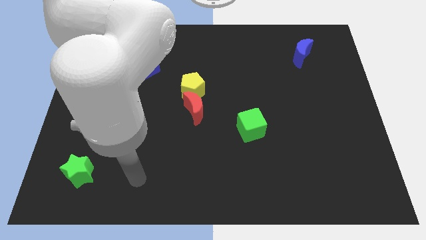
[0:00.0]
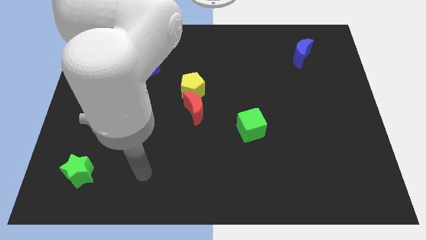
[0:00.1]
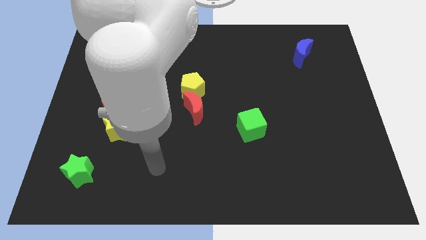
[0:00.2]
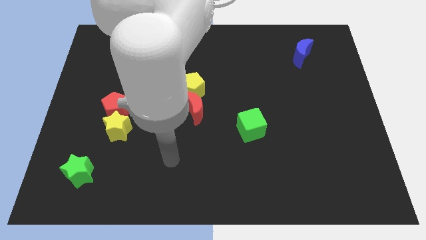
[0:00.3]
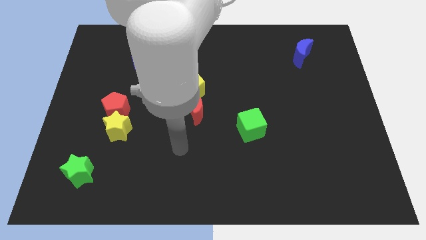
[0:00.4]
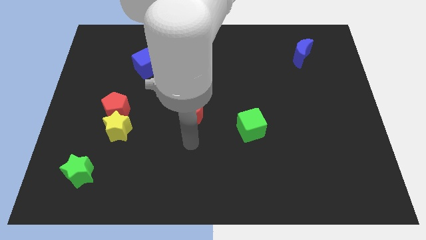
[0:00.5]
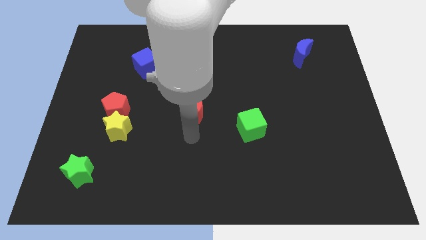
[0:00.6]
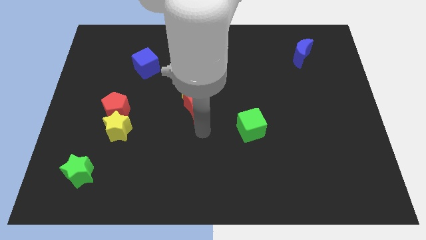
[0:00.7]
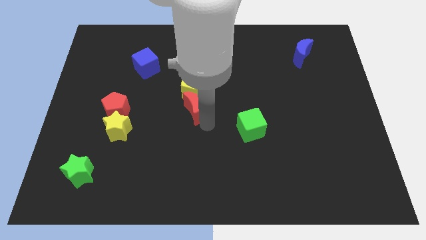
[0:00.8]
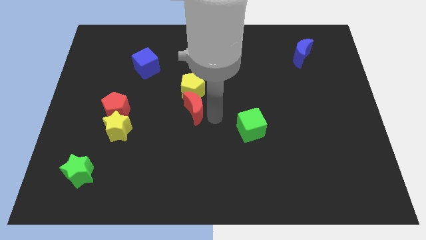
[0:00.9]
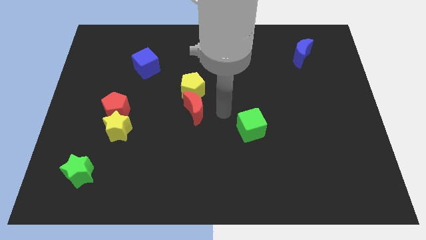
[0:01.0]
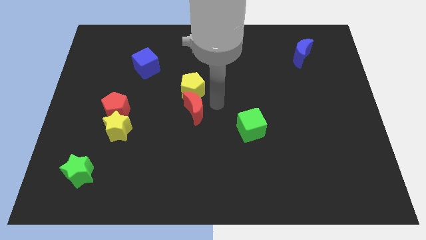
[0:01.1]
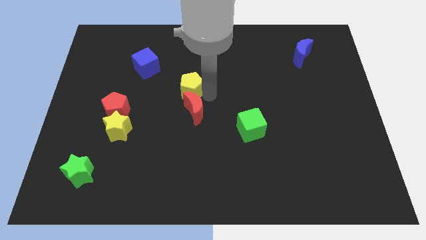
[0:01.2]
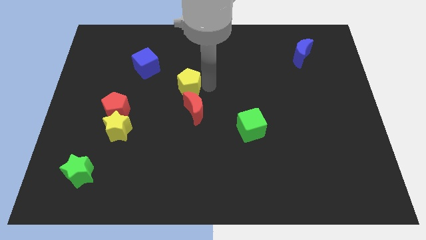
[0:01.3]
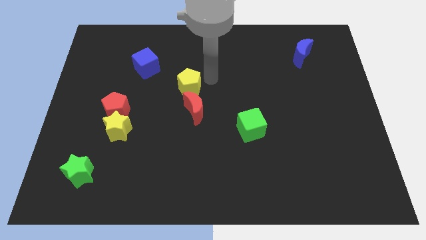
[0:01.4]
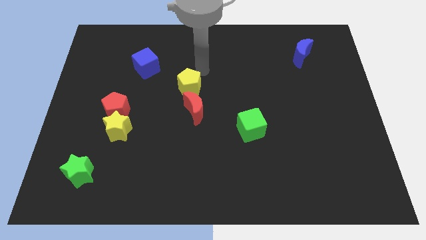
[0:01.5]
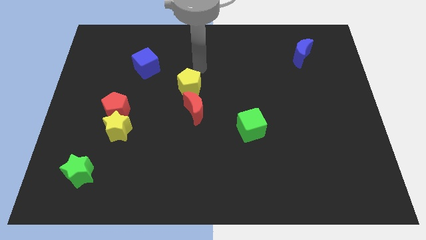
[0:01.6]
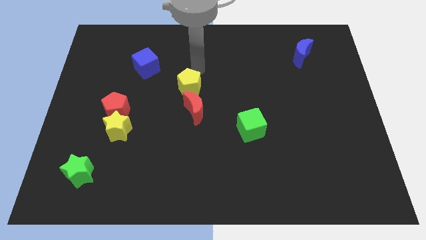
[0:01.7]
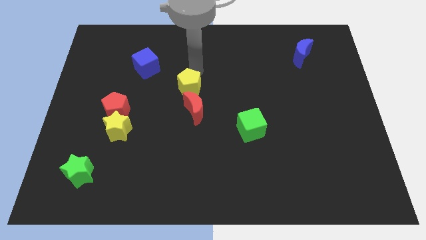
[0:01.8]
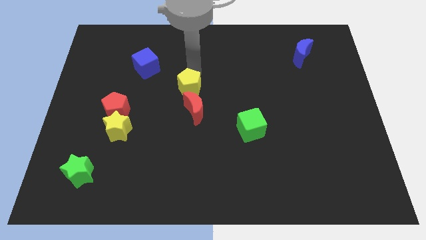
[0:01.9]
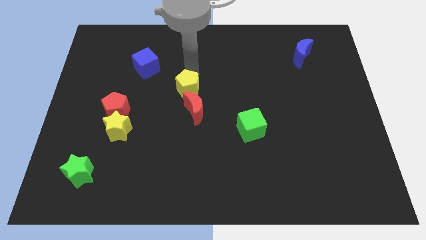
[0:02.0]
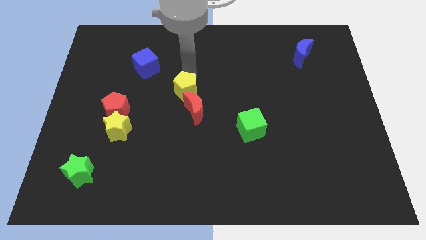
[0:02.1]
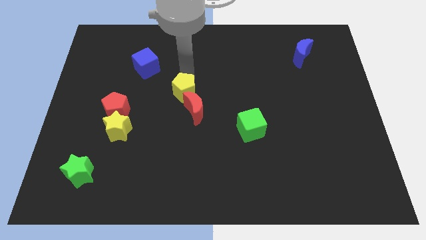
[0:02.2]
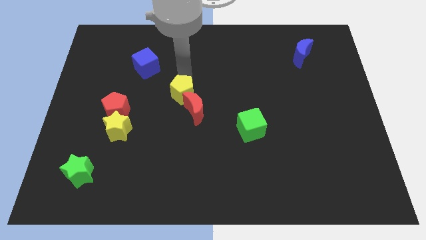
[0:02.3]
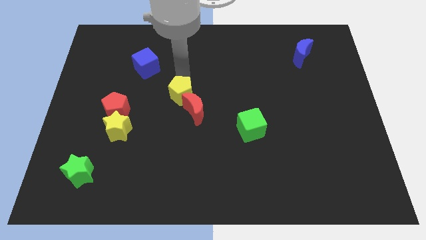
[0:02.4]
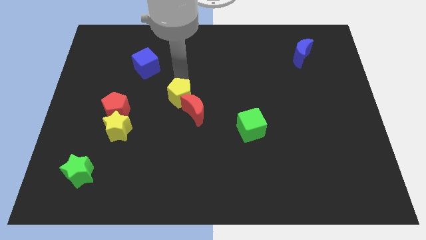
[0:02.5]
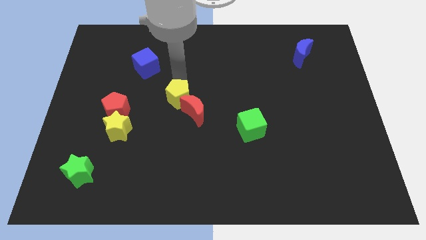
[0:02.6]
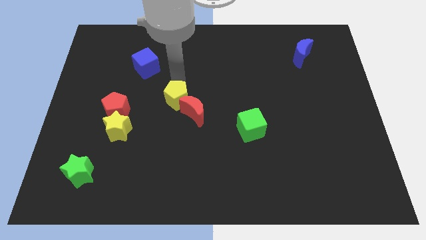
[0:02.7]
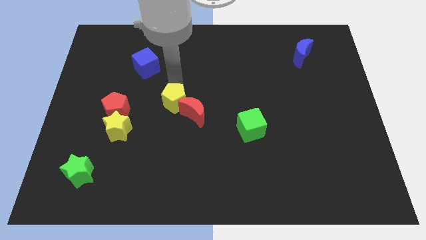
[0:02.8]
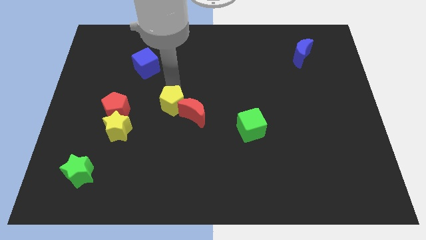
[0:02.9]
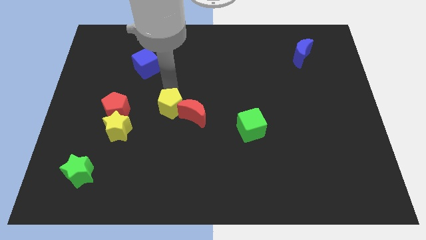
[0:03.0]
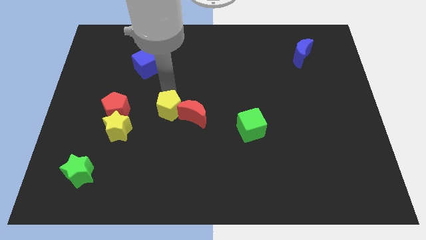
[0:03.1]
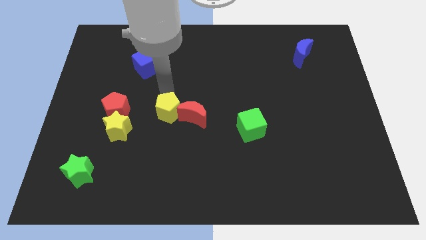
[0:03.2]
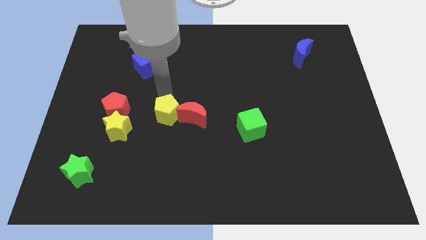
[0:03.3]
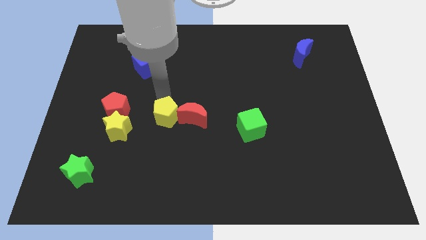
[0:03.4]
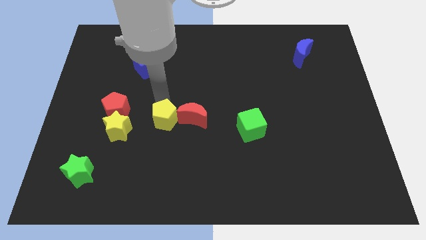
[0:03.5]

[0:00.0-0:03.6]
push the yellow pentagon a little downwards

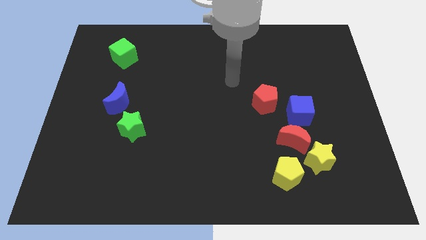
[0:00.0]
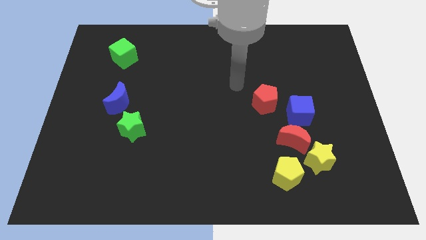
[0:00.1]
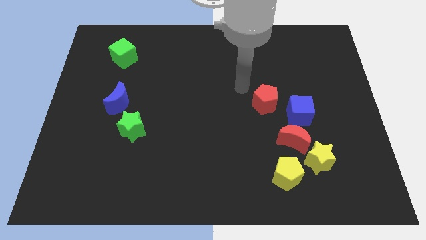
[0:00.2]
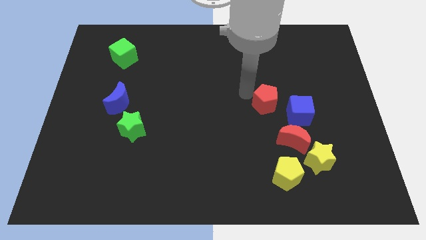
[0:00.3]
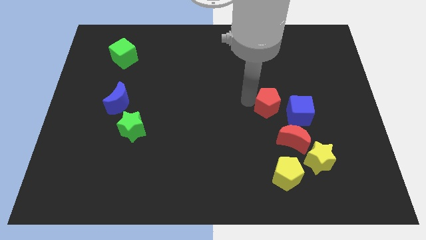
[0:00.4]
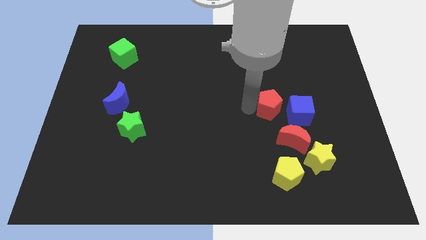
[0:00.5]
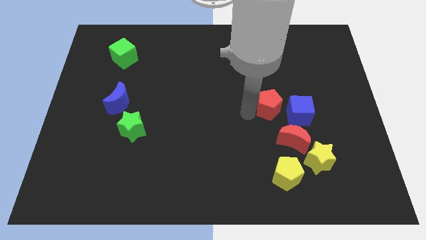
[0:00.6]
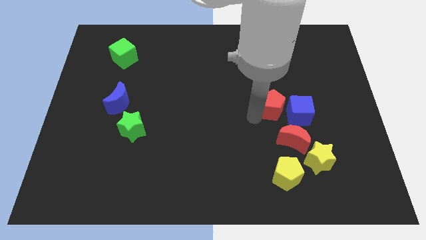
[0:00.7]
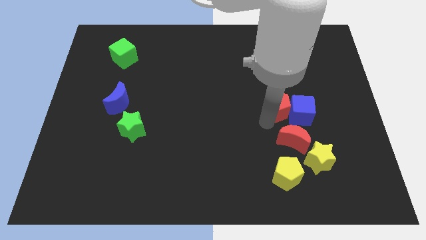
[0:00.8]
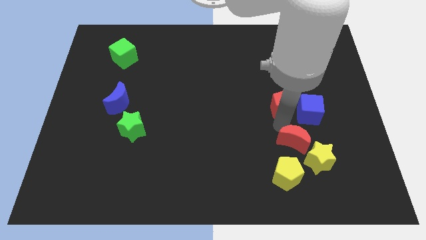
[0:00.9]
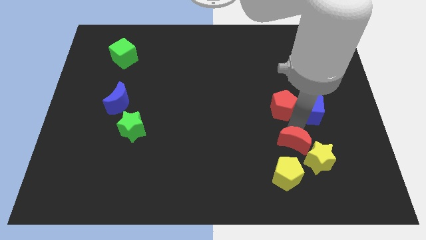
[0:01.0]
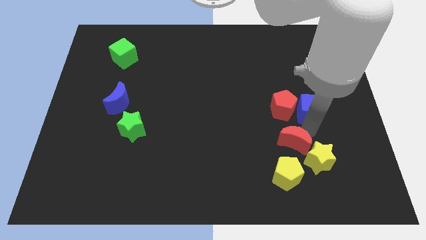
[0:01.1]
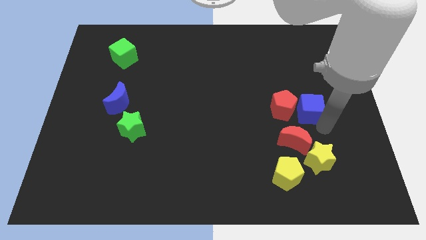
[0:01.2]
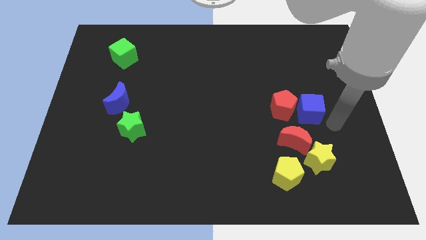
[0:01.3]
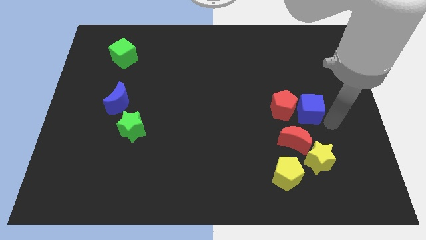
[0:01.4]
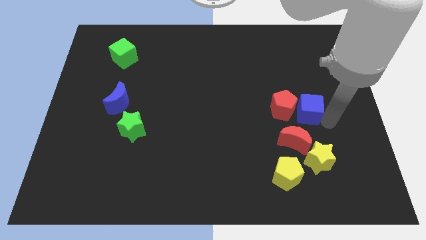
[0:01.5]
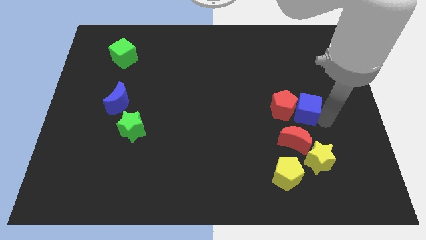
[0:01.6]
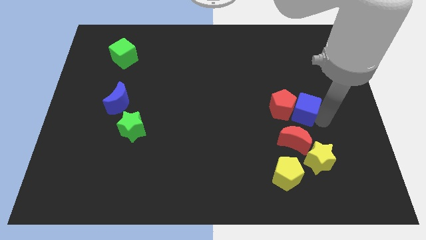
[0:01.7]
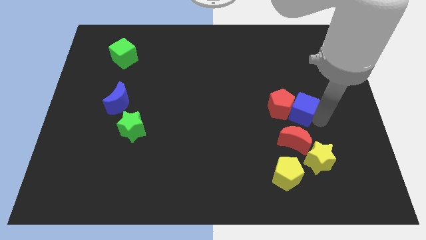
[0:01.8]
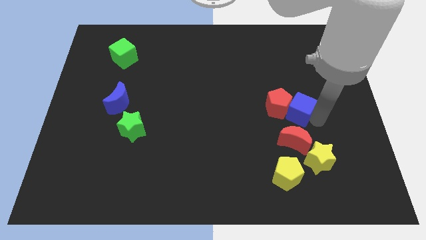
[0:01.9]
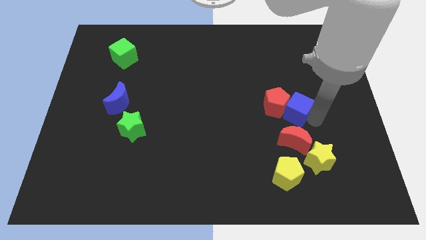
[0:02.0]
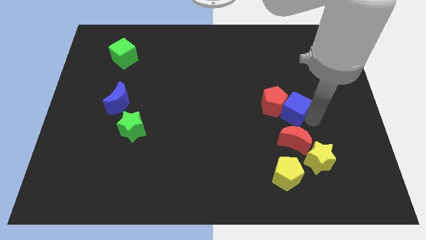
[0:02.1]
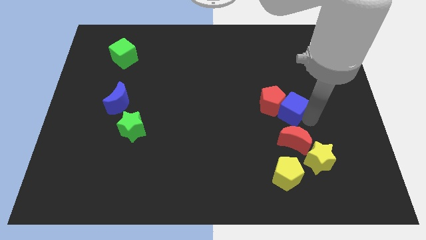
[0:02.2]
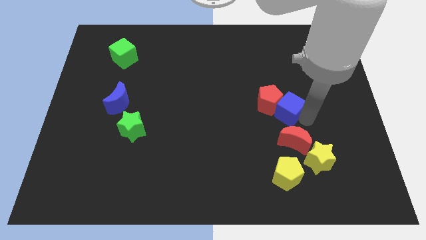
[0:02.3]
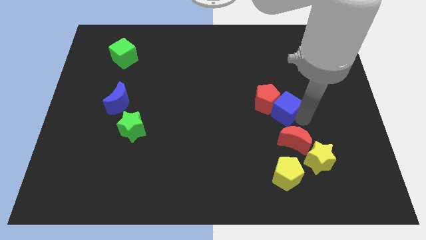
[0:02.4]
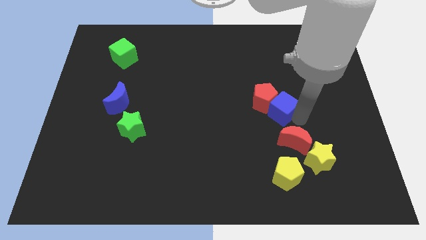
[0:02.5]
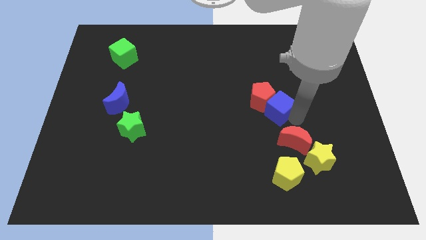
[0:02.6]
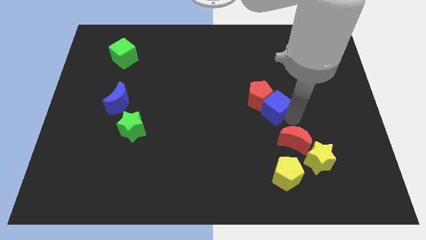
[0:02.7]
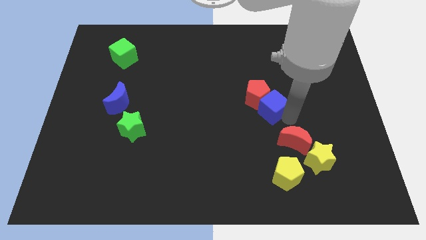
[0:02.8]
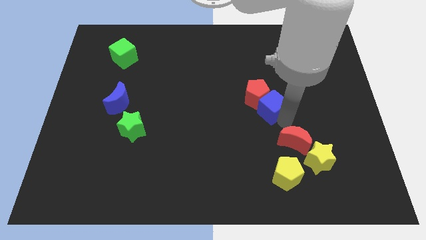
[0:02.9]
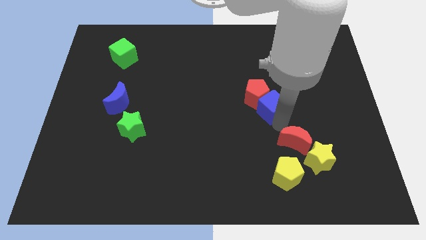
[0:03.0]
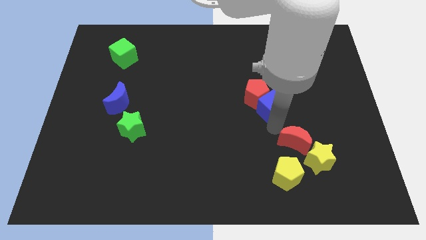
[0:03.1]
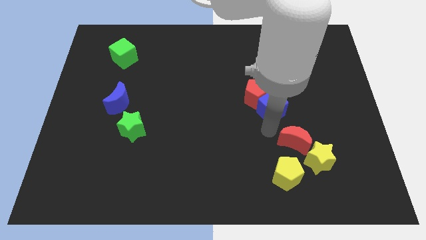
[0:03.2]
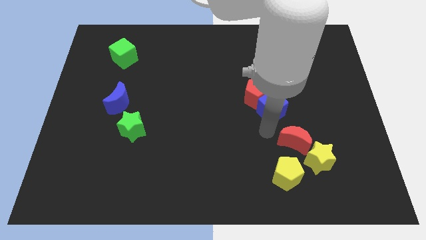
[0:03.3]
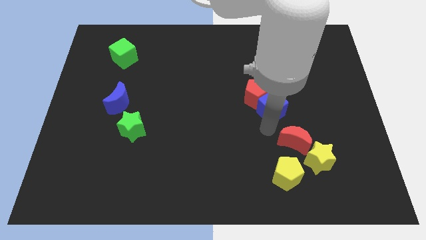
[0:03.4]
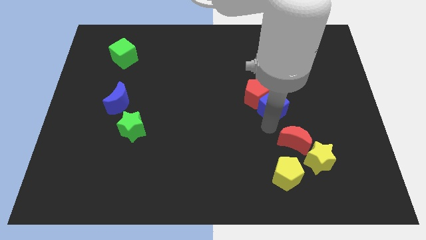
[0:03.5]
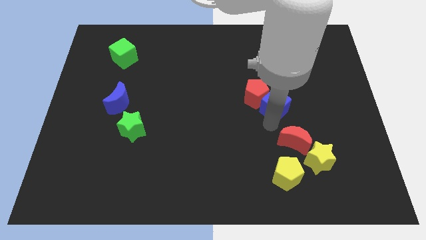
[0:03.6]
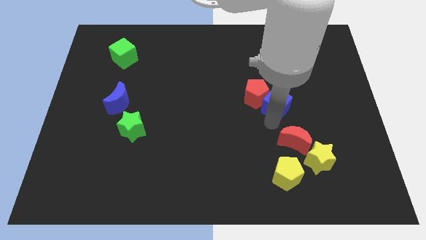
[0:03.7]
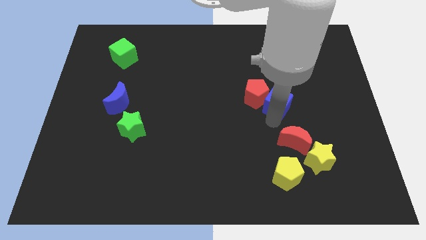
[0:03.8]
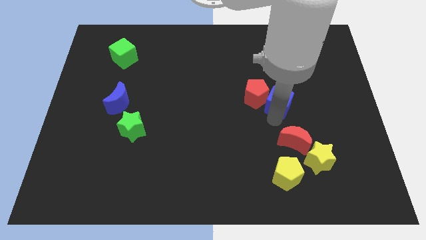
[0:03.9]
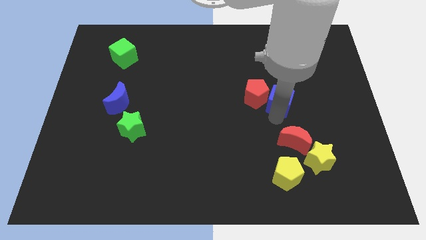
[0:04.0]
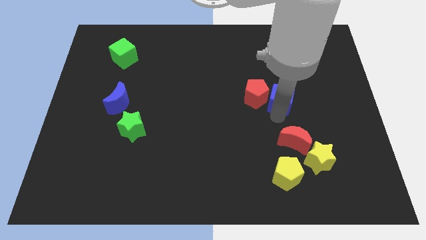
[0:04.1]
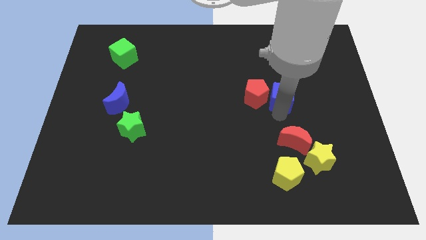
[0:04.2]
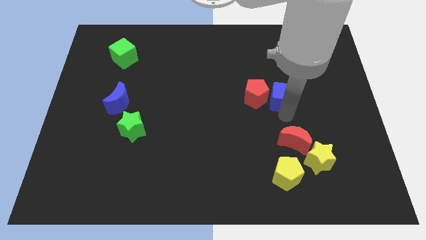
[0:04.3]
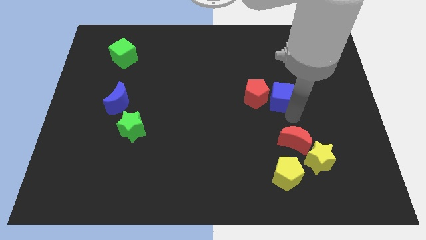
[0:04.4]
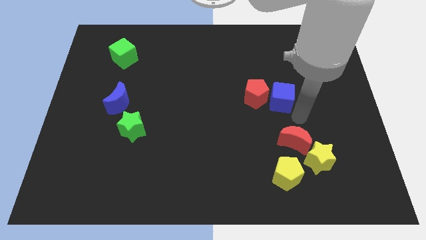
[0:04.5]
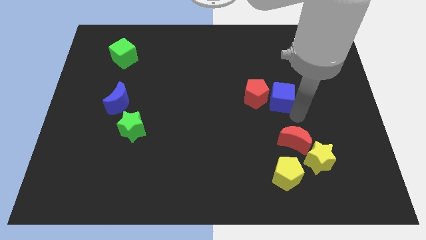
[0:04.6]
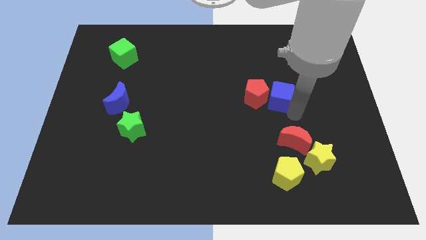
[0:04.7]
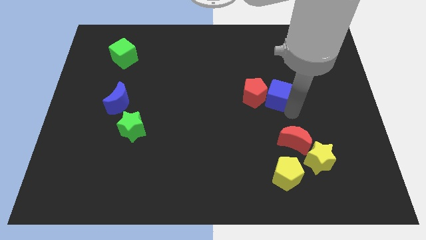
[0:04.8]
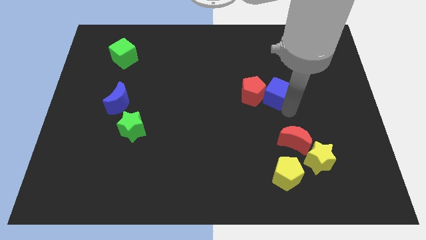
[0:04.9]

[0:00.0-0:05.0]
slightly move the blue cube diagonally up and to the left
